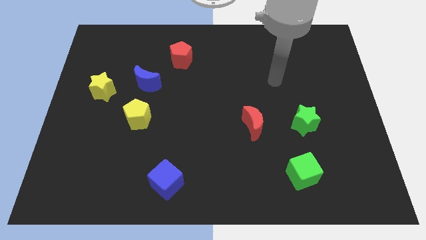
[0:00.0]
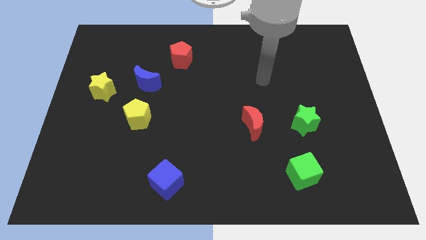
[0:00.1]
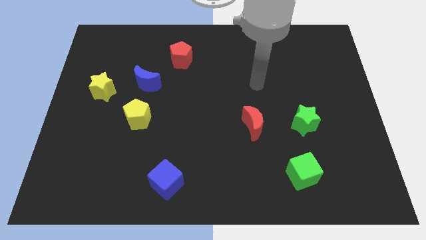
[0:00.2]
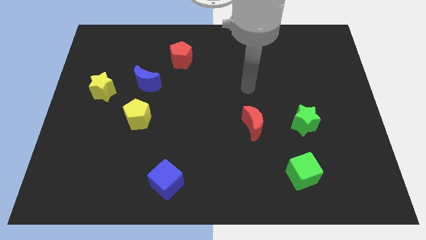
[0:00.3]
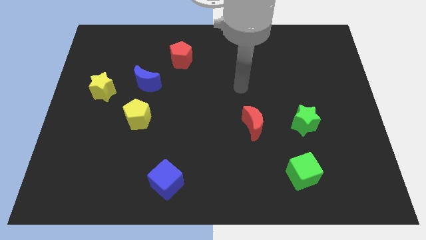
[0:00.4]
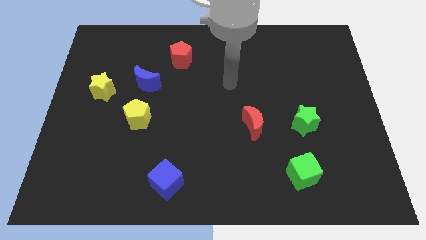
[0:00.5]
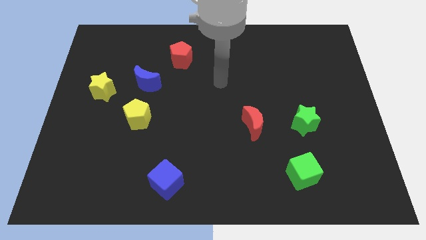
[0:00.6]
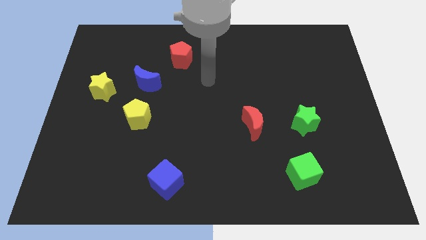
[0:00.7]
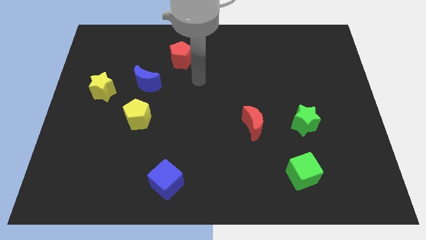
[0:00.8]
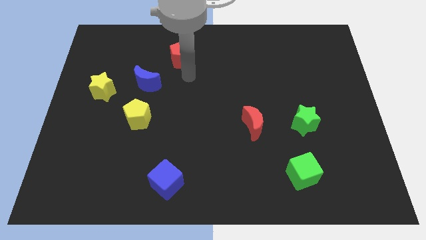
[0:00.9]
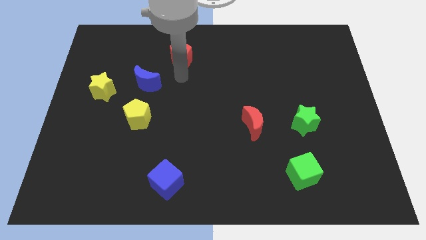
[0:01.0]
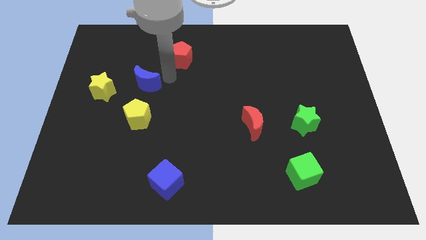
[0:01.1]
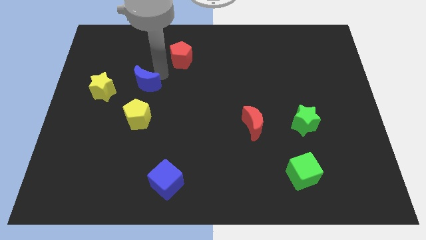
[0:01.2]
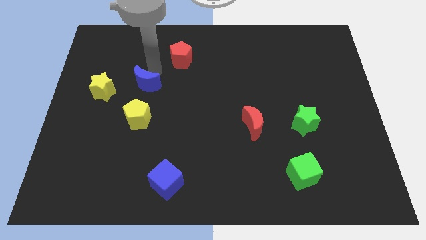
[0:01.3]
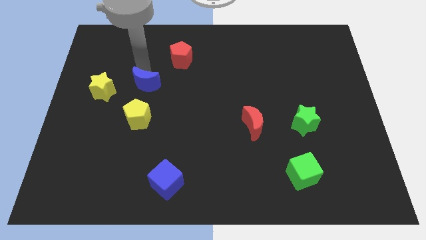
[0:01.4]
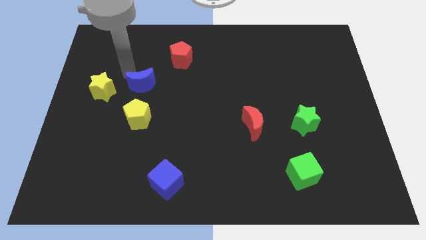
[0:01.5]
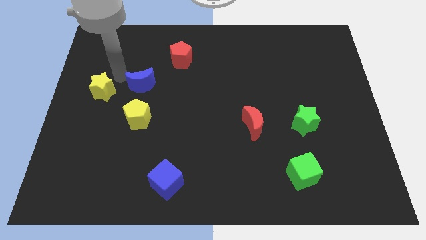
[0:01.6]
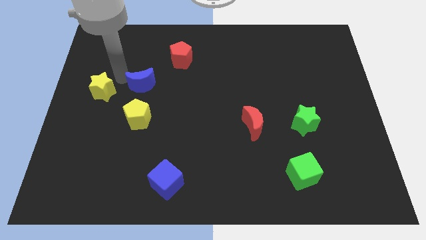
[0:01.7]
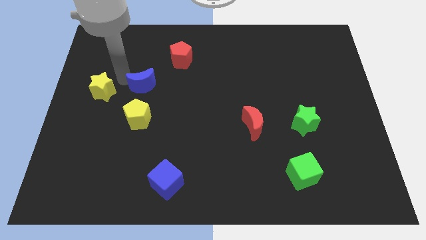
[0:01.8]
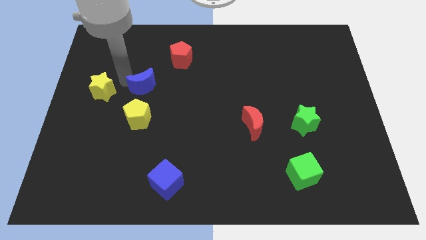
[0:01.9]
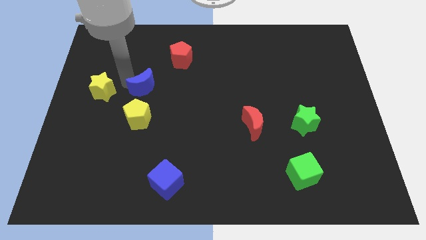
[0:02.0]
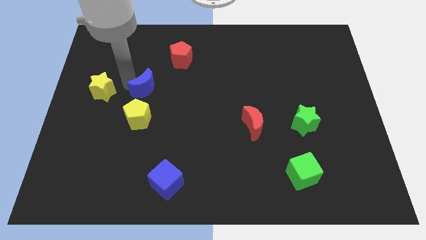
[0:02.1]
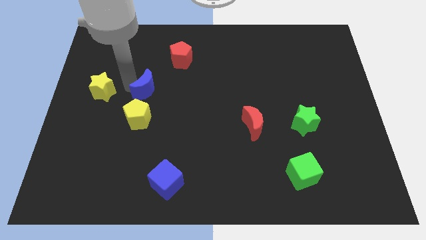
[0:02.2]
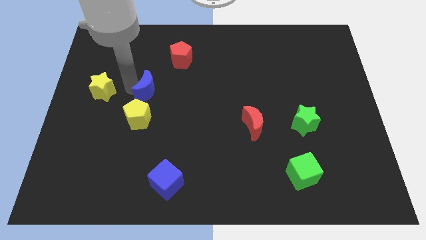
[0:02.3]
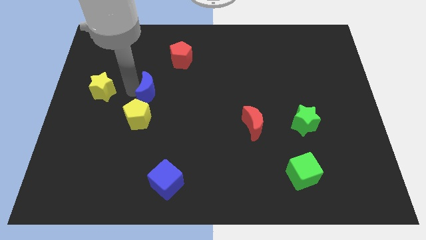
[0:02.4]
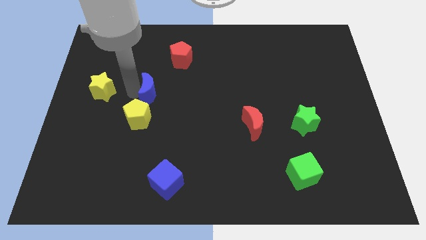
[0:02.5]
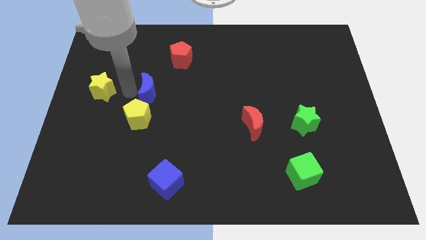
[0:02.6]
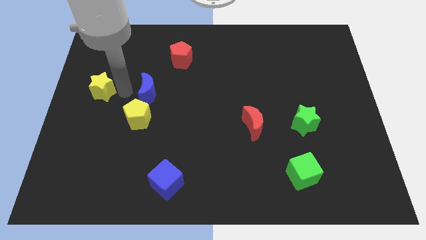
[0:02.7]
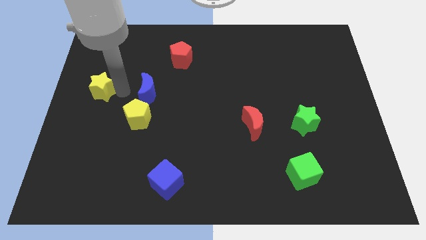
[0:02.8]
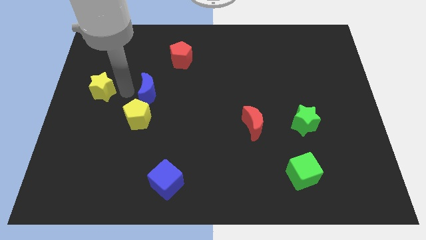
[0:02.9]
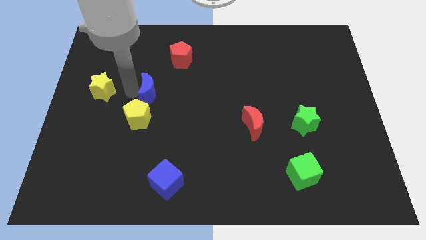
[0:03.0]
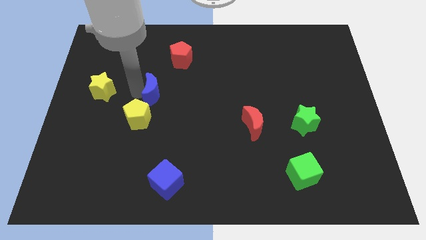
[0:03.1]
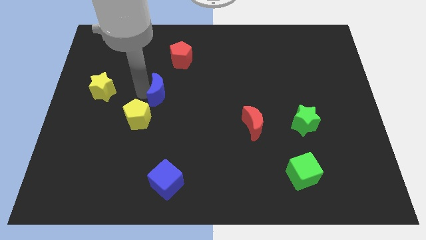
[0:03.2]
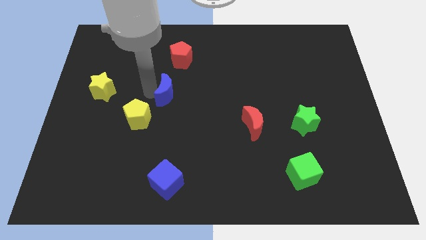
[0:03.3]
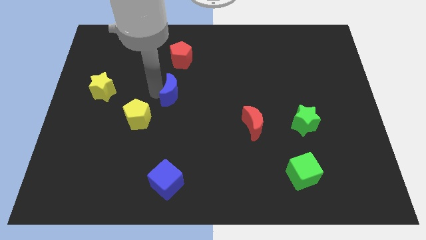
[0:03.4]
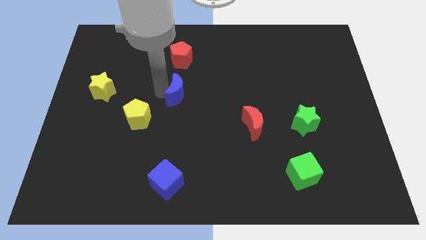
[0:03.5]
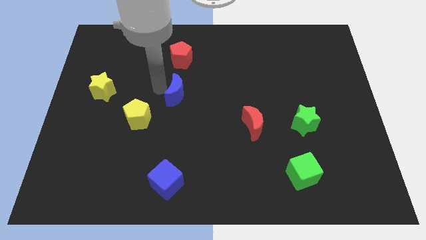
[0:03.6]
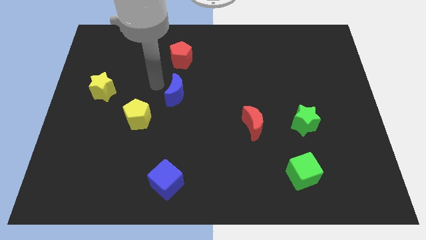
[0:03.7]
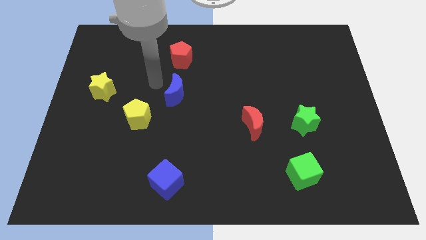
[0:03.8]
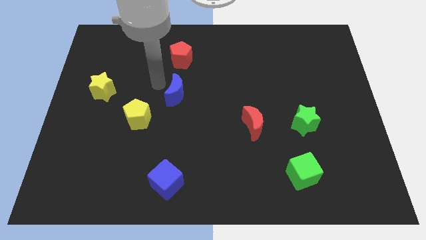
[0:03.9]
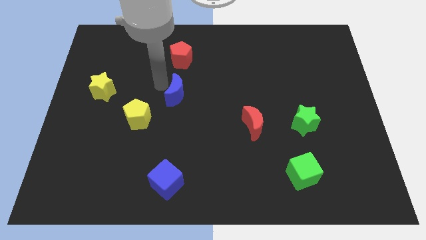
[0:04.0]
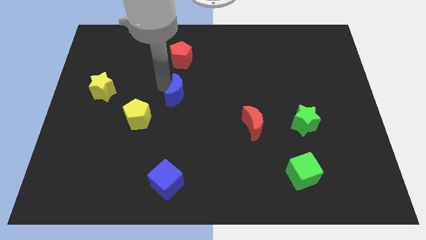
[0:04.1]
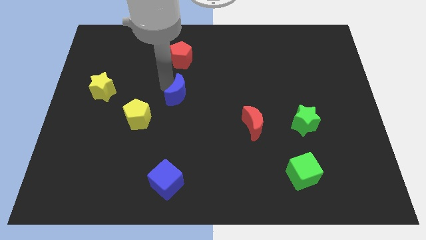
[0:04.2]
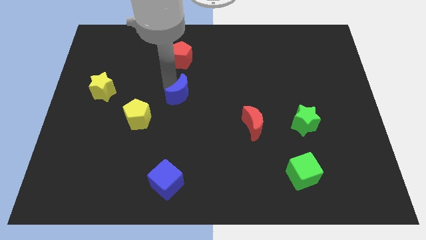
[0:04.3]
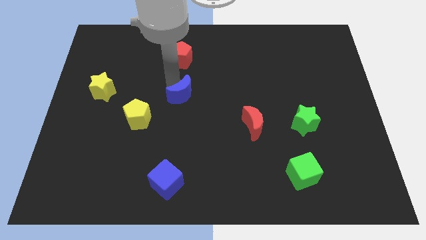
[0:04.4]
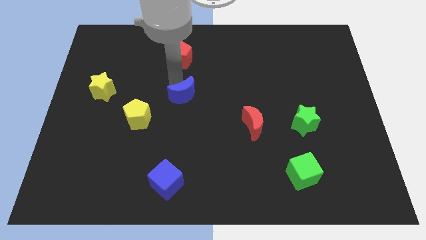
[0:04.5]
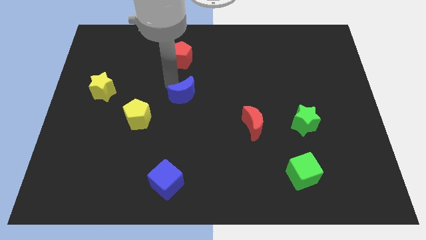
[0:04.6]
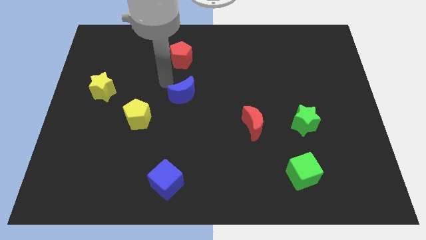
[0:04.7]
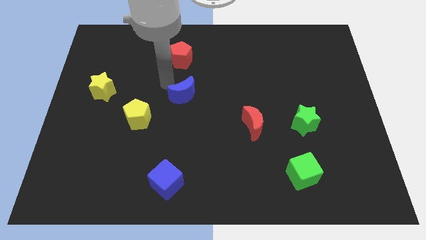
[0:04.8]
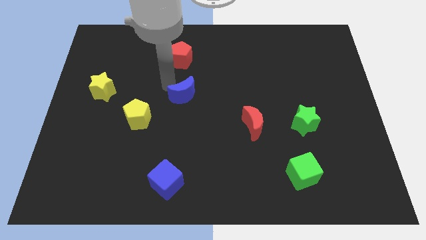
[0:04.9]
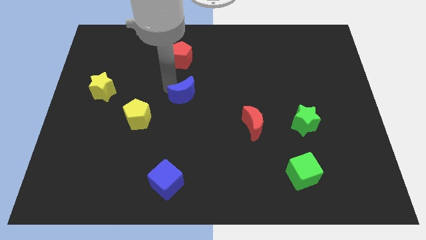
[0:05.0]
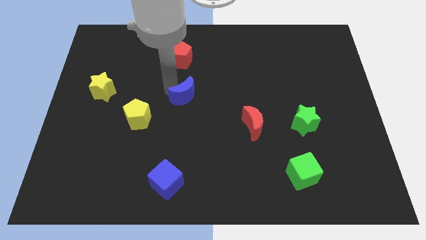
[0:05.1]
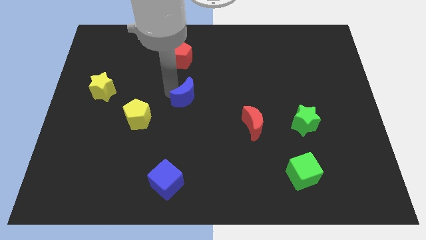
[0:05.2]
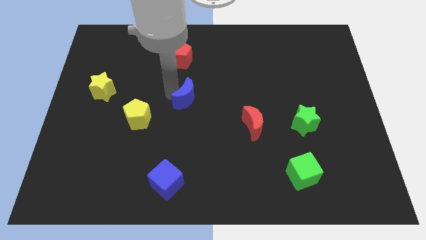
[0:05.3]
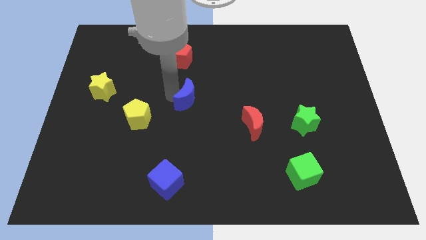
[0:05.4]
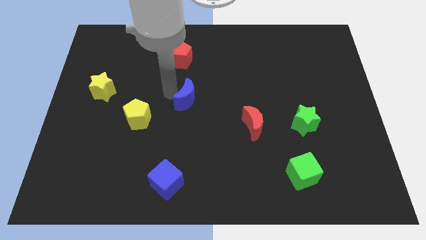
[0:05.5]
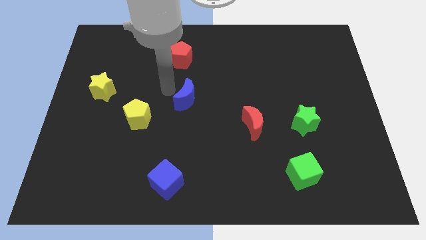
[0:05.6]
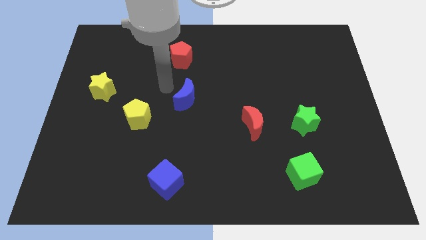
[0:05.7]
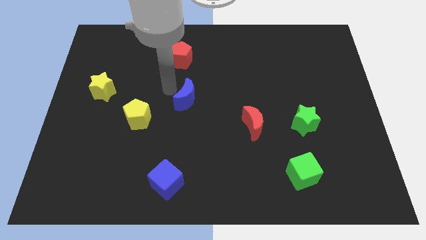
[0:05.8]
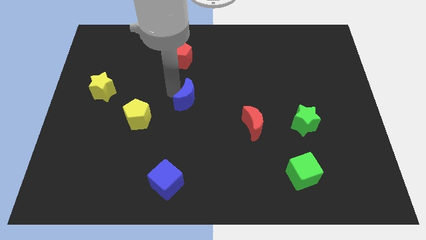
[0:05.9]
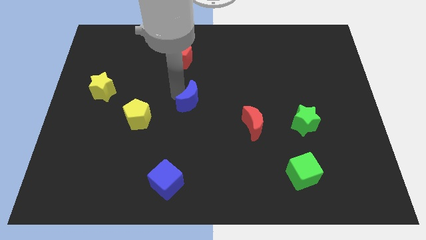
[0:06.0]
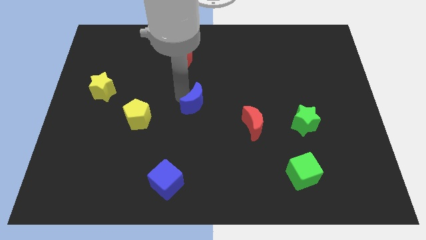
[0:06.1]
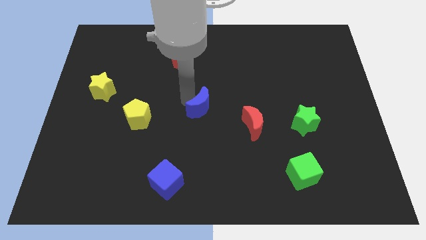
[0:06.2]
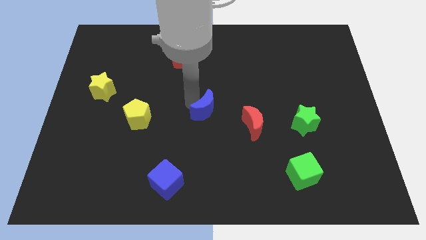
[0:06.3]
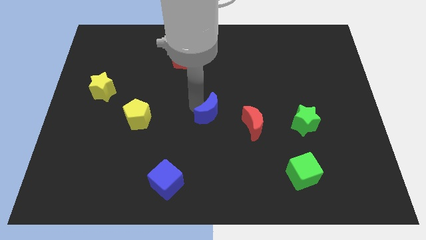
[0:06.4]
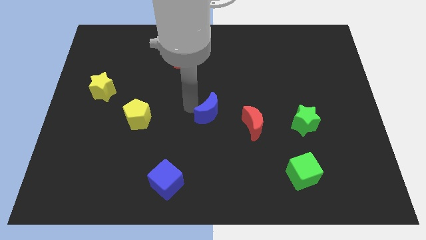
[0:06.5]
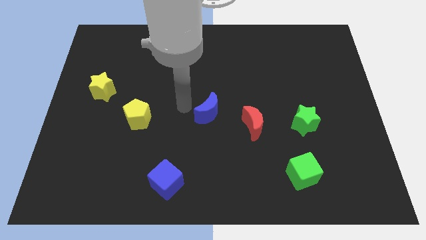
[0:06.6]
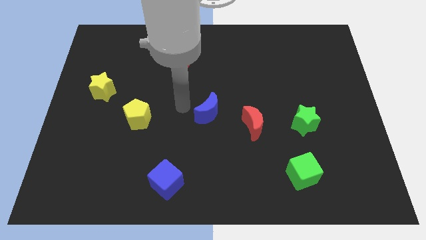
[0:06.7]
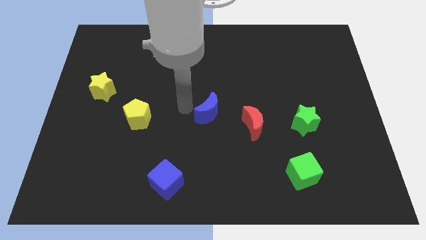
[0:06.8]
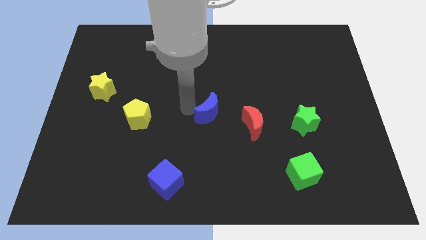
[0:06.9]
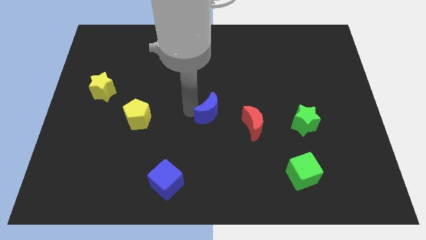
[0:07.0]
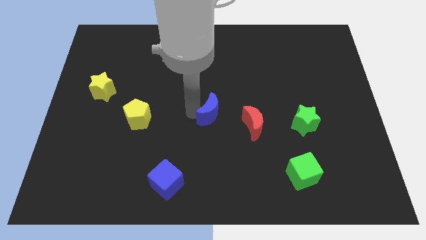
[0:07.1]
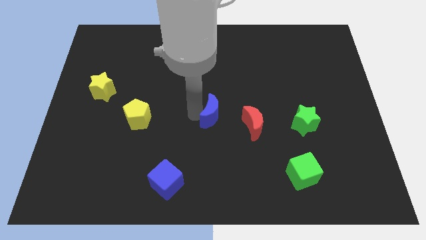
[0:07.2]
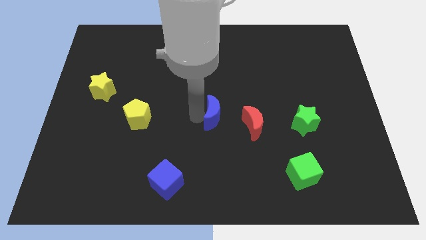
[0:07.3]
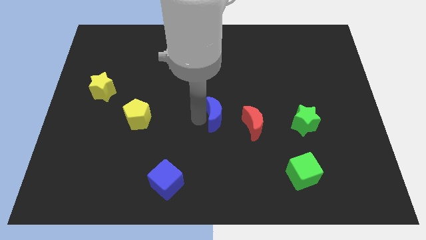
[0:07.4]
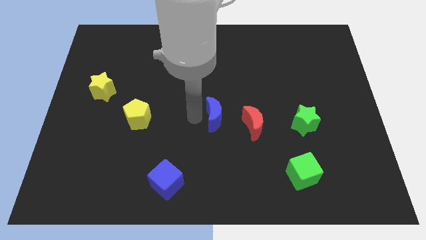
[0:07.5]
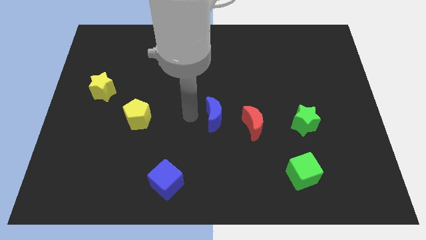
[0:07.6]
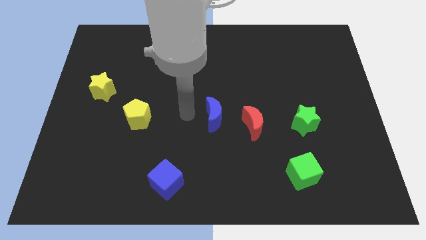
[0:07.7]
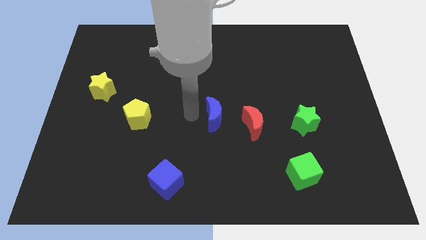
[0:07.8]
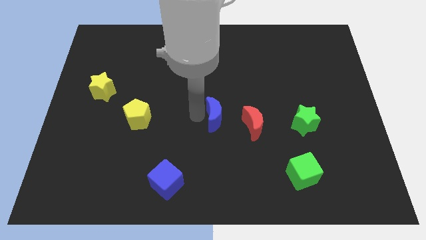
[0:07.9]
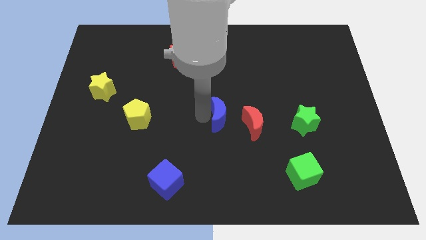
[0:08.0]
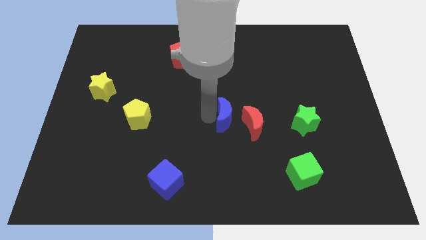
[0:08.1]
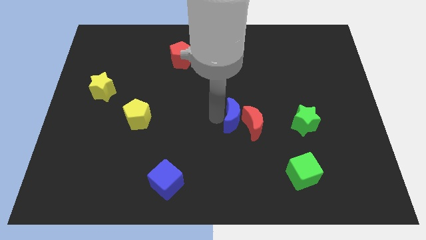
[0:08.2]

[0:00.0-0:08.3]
slide the blue moon towards the red moon
